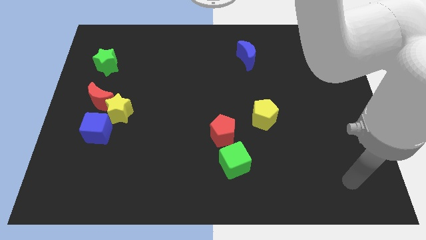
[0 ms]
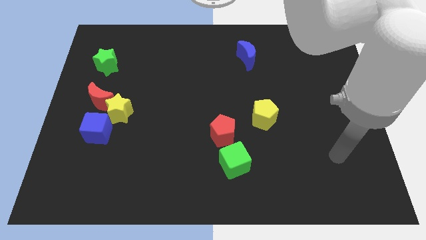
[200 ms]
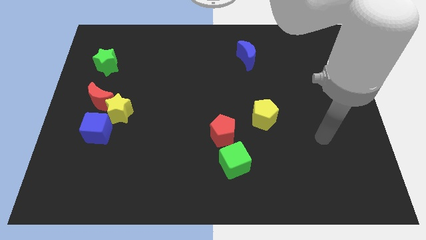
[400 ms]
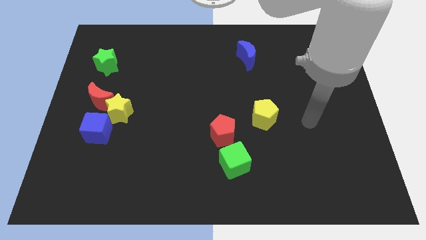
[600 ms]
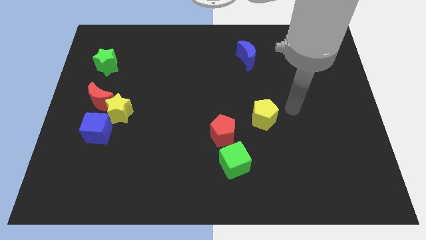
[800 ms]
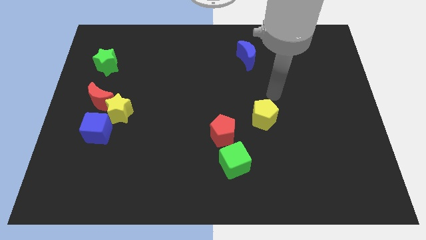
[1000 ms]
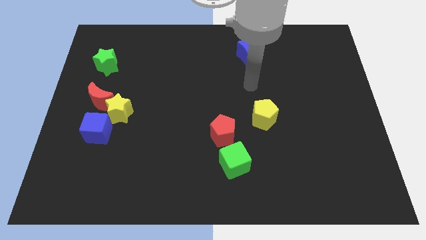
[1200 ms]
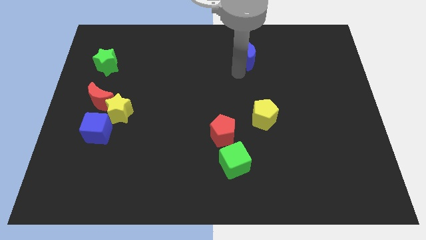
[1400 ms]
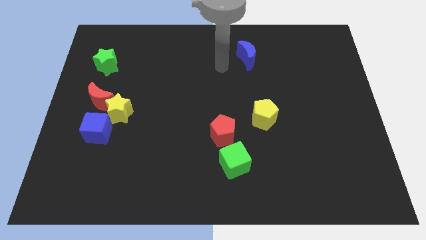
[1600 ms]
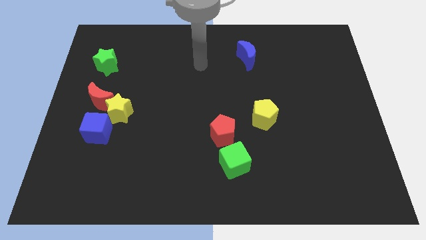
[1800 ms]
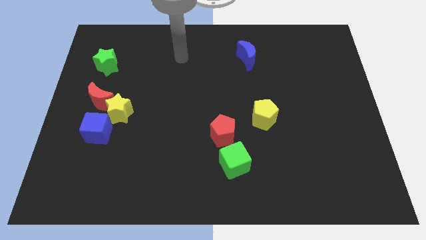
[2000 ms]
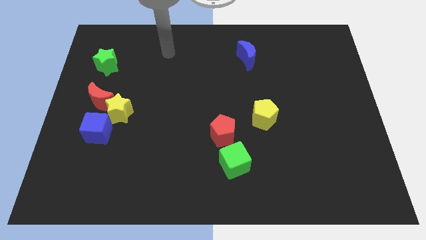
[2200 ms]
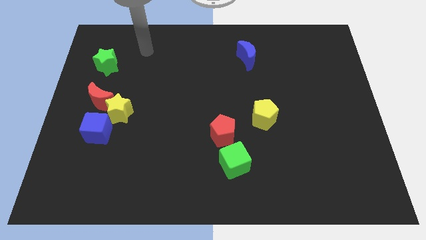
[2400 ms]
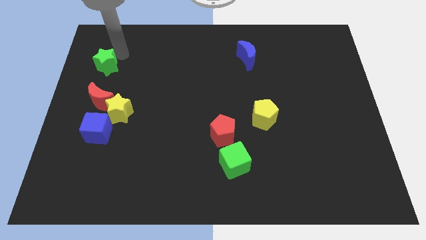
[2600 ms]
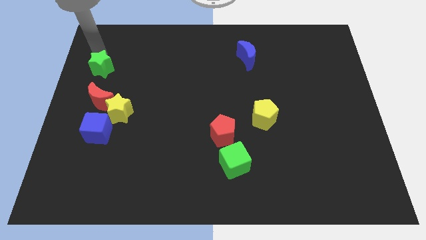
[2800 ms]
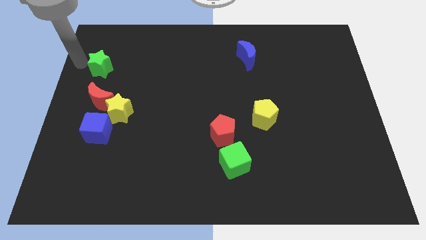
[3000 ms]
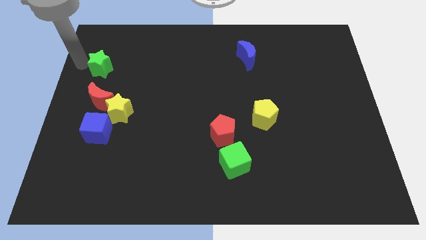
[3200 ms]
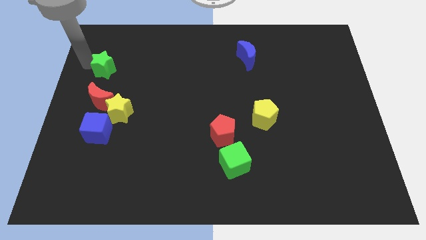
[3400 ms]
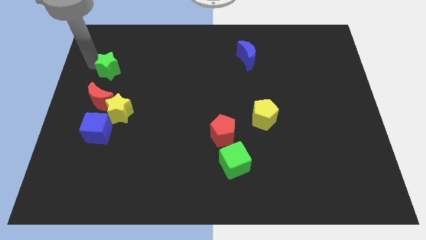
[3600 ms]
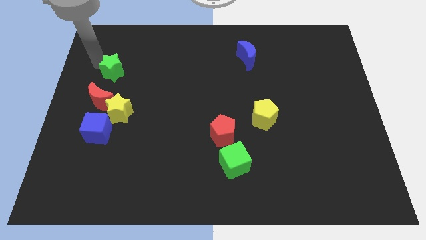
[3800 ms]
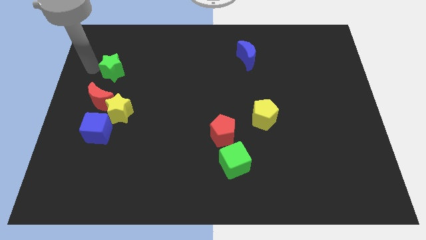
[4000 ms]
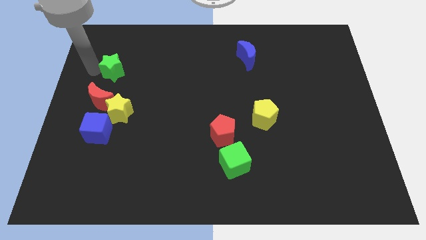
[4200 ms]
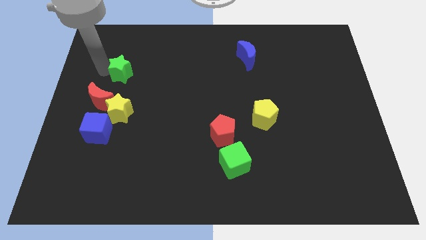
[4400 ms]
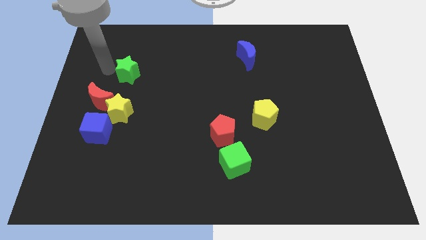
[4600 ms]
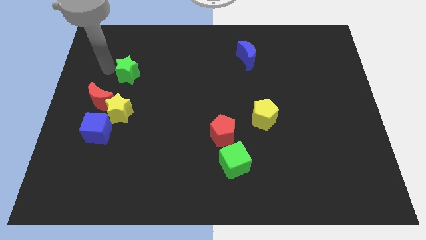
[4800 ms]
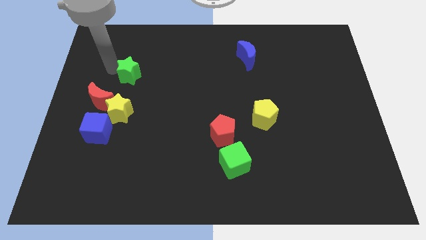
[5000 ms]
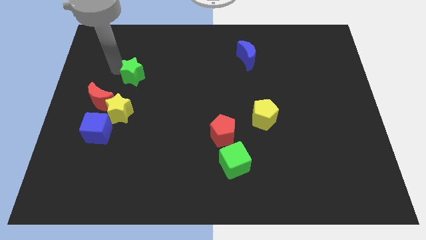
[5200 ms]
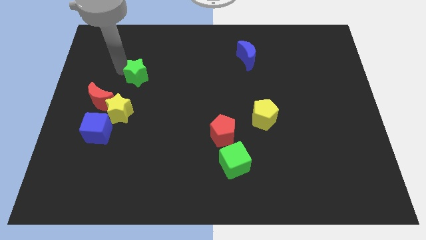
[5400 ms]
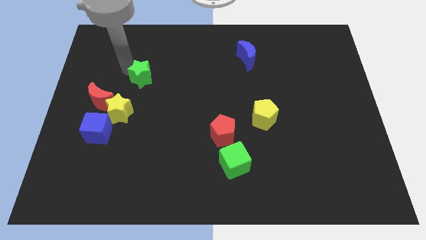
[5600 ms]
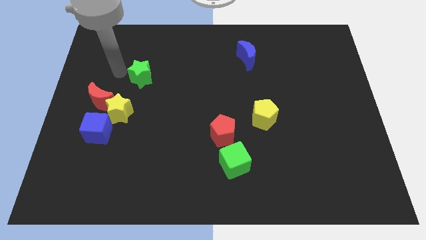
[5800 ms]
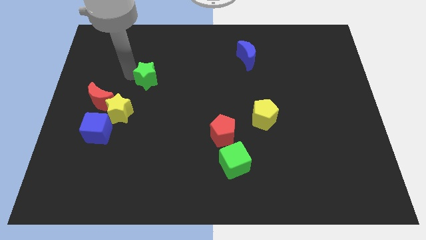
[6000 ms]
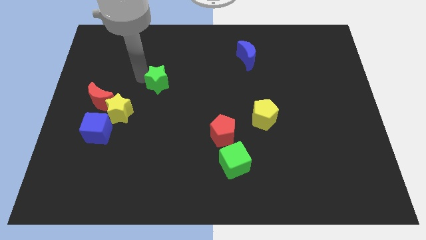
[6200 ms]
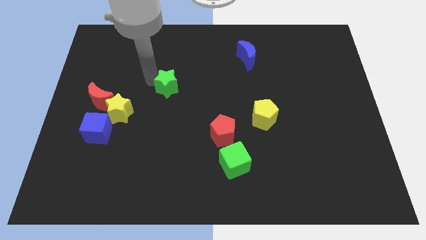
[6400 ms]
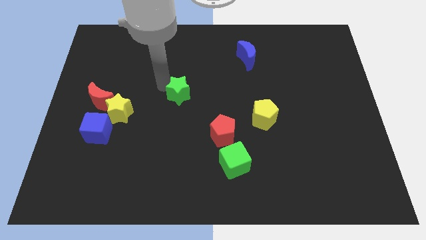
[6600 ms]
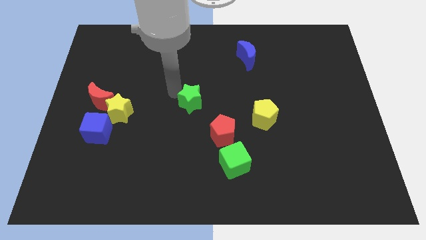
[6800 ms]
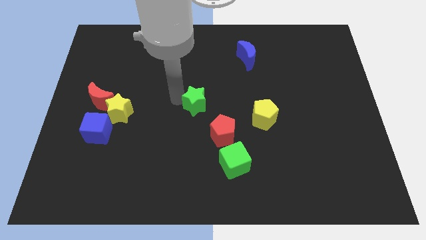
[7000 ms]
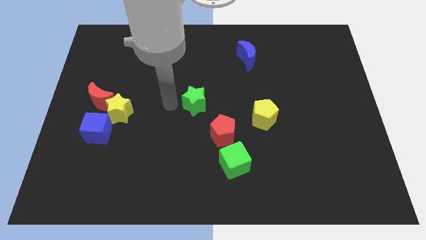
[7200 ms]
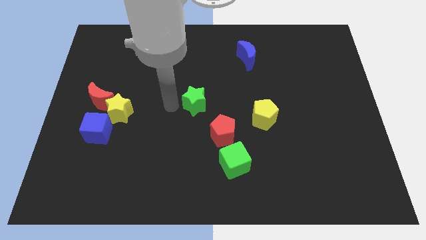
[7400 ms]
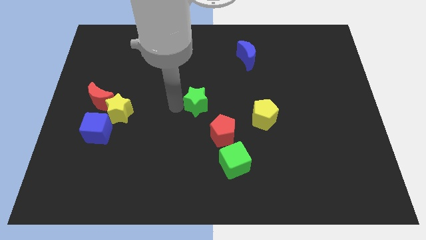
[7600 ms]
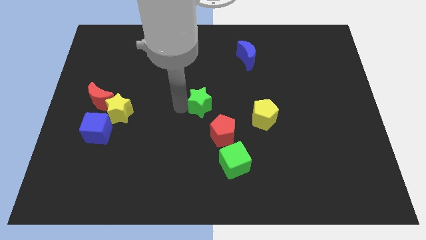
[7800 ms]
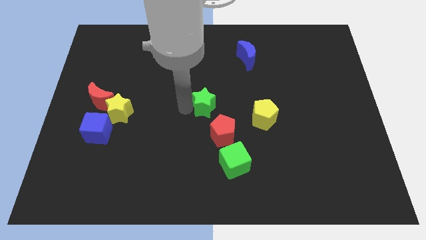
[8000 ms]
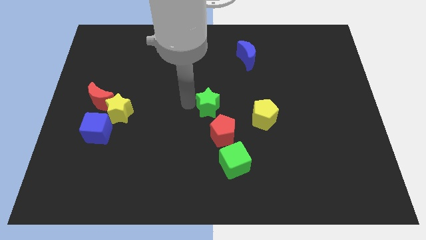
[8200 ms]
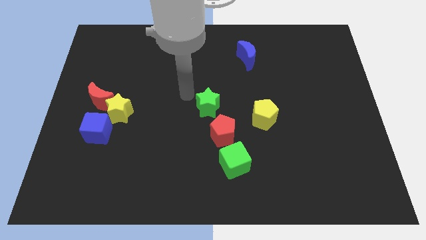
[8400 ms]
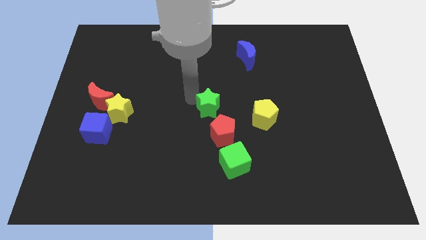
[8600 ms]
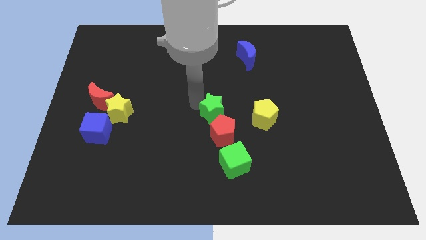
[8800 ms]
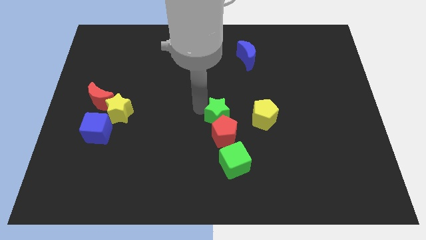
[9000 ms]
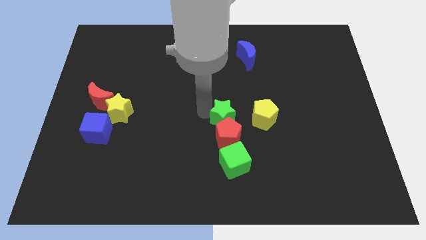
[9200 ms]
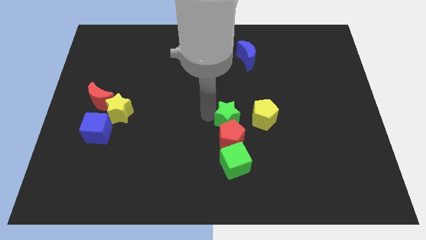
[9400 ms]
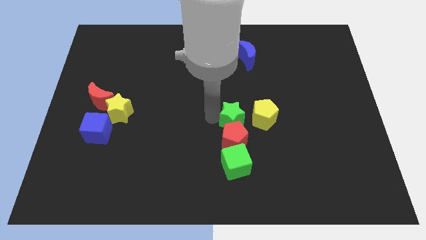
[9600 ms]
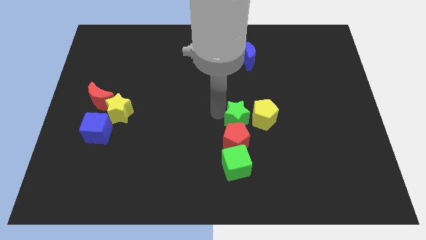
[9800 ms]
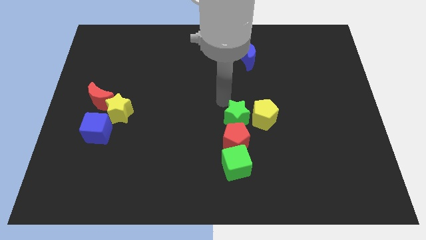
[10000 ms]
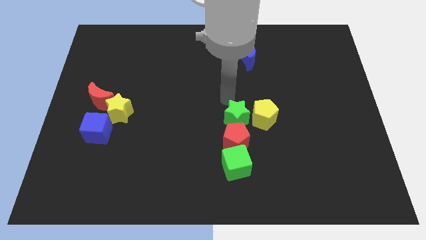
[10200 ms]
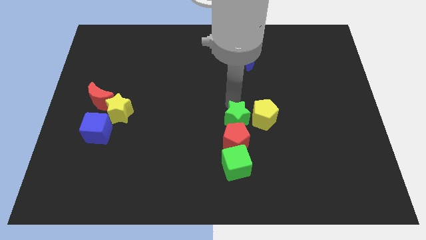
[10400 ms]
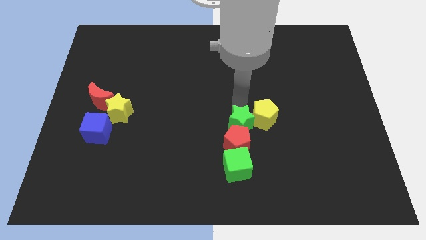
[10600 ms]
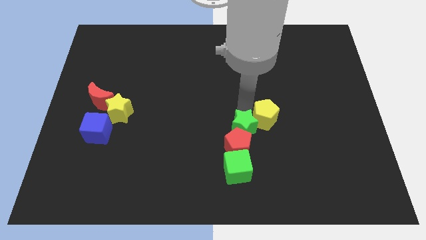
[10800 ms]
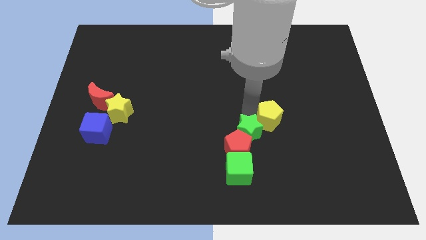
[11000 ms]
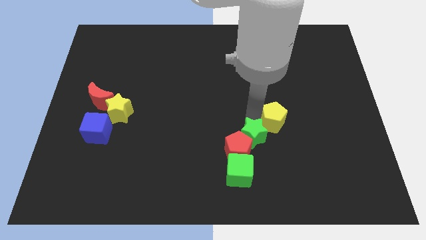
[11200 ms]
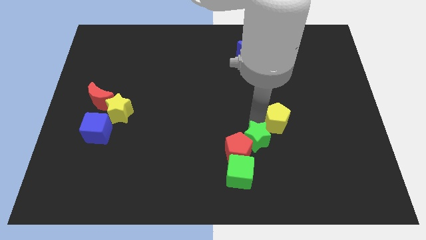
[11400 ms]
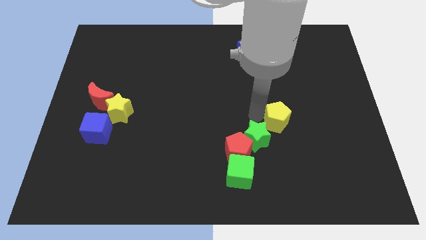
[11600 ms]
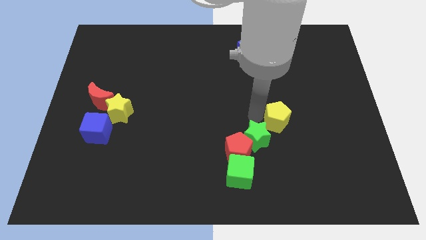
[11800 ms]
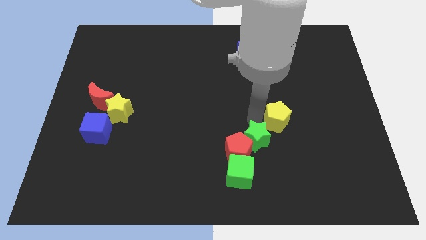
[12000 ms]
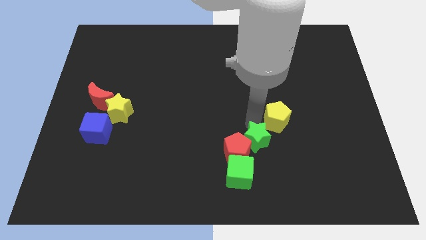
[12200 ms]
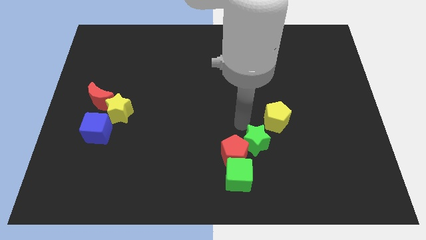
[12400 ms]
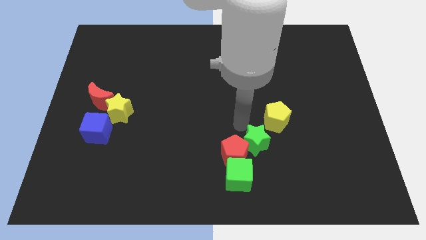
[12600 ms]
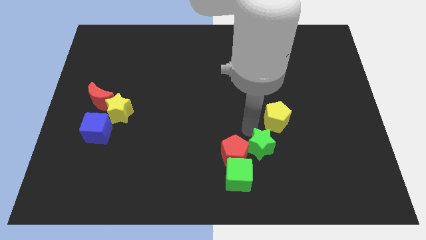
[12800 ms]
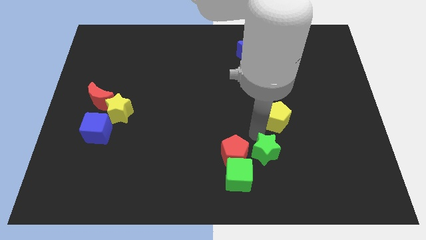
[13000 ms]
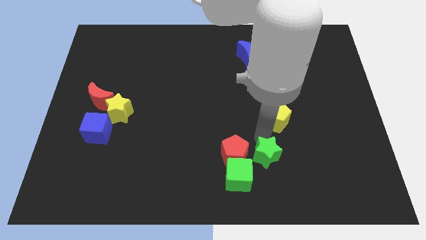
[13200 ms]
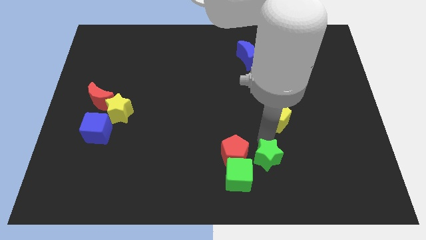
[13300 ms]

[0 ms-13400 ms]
put the green star to the right of the green cube
